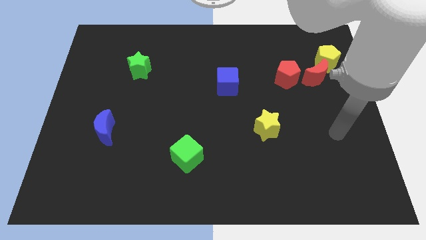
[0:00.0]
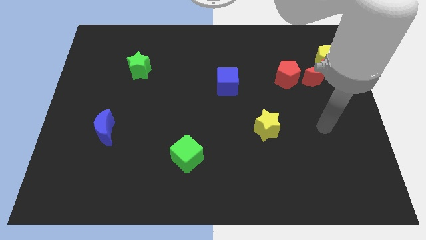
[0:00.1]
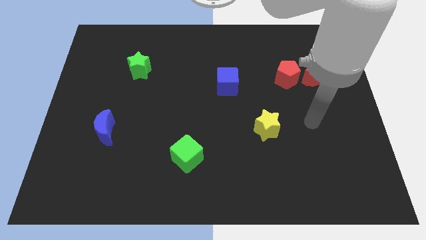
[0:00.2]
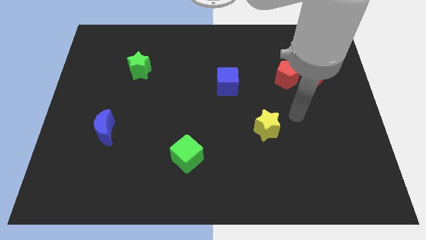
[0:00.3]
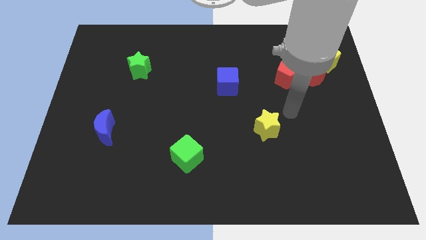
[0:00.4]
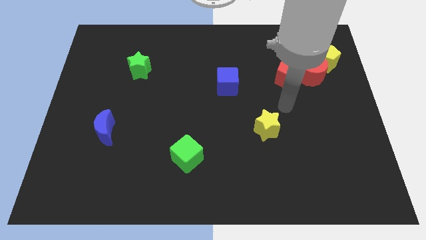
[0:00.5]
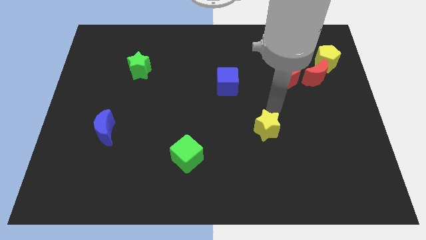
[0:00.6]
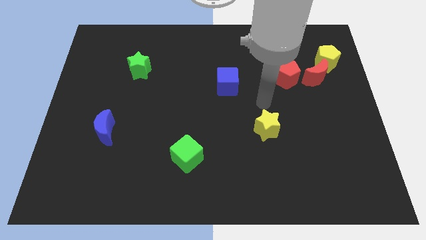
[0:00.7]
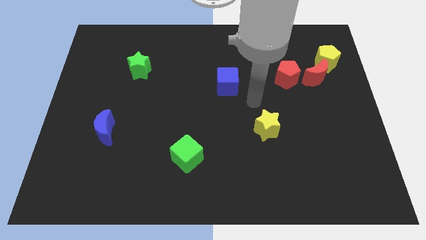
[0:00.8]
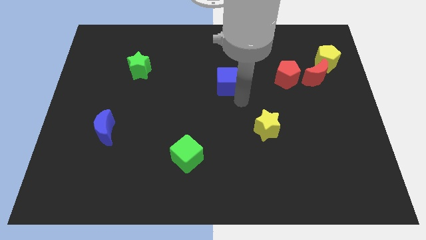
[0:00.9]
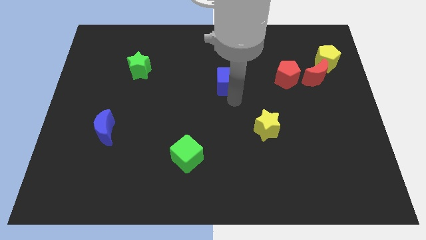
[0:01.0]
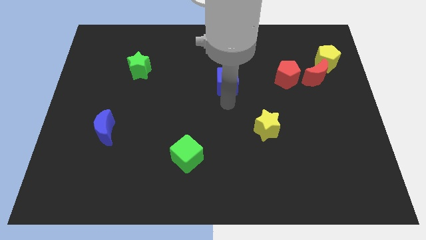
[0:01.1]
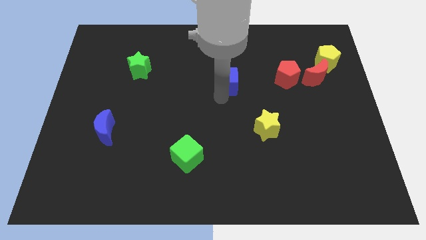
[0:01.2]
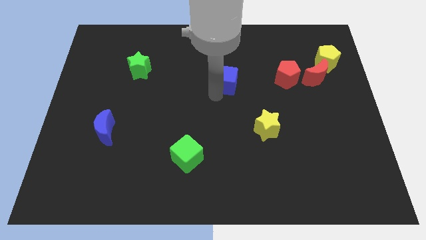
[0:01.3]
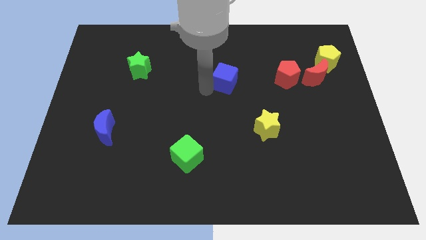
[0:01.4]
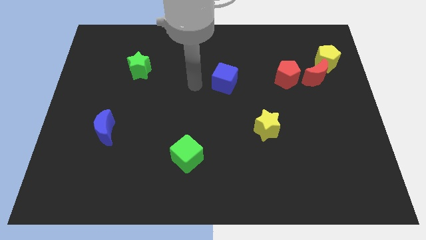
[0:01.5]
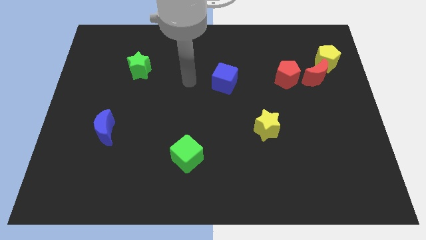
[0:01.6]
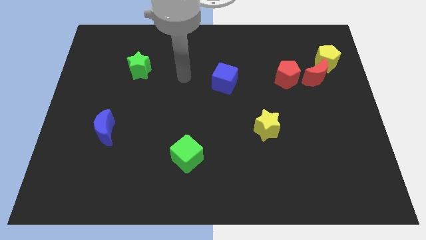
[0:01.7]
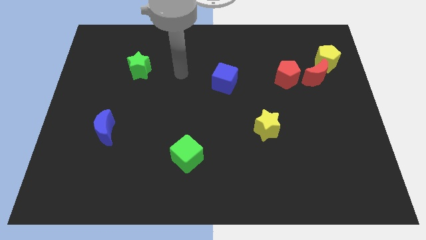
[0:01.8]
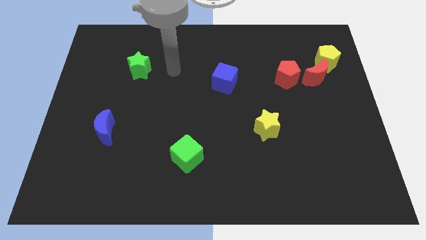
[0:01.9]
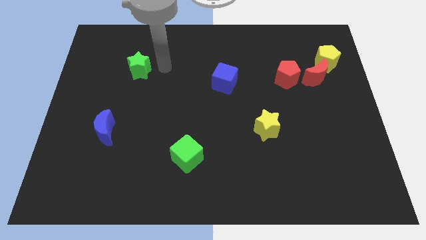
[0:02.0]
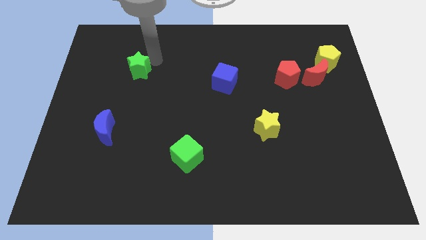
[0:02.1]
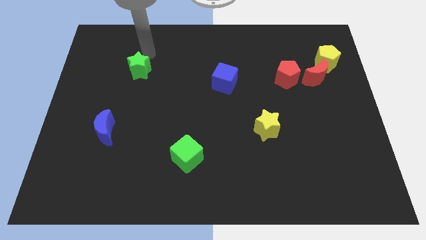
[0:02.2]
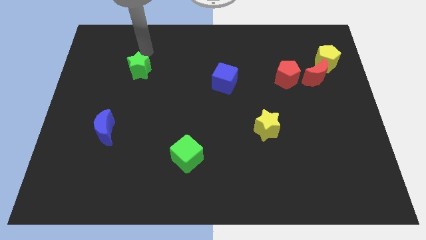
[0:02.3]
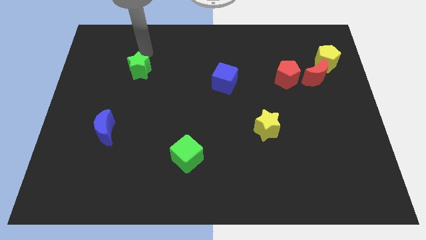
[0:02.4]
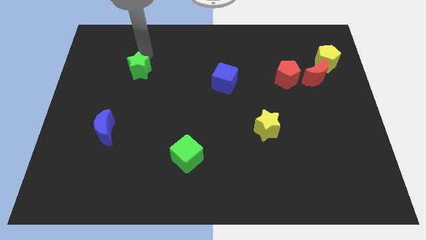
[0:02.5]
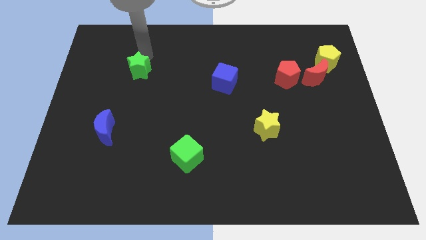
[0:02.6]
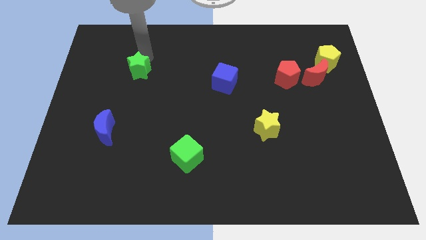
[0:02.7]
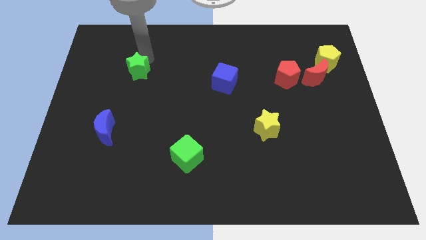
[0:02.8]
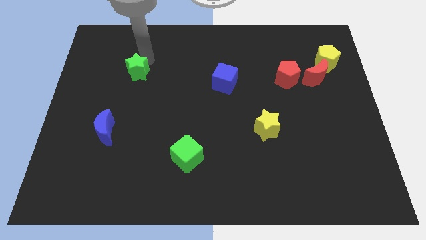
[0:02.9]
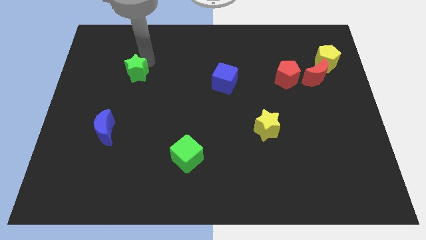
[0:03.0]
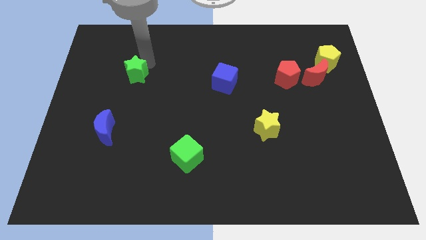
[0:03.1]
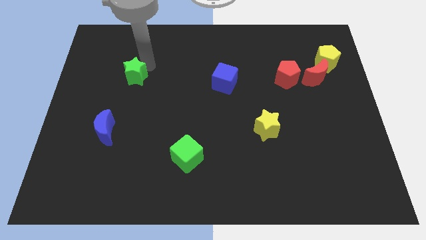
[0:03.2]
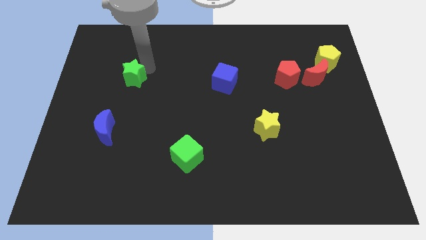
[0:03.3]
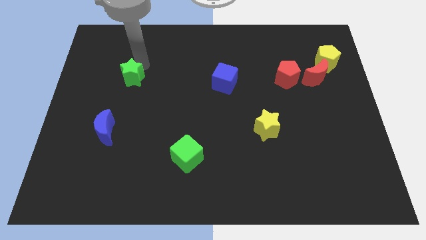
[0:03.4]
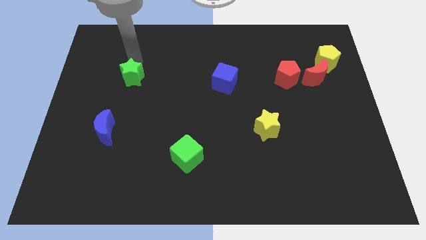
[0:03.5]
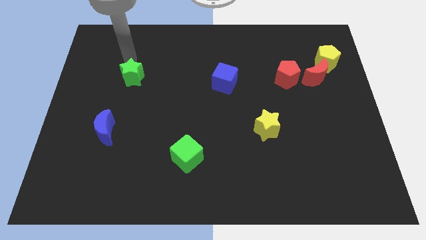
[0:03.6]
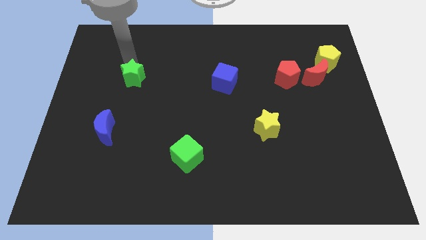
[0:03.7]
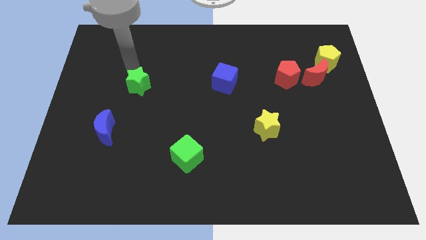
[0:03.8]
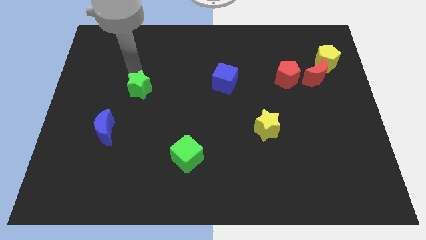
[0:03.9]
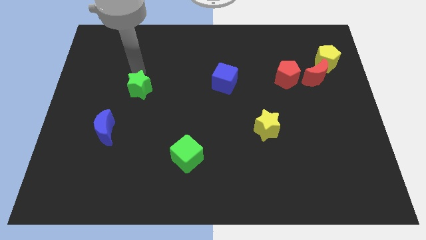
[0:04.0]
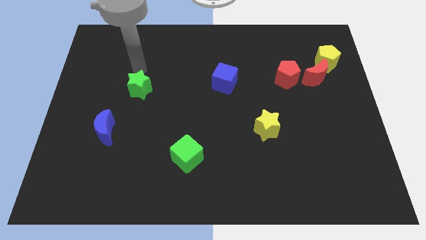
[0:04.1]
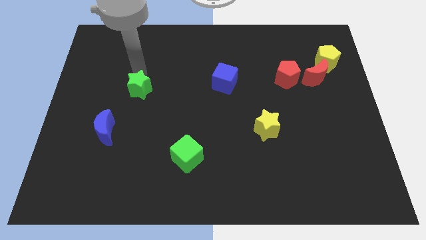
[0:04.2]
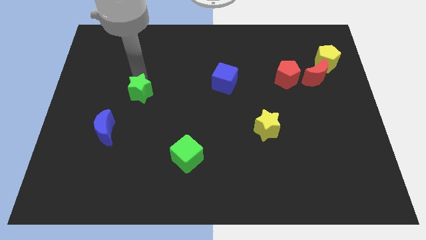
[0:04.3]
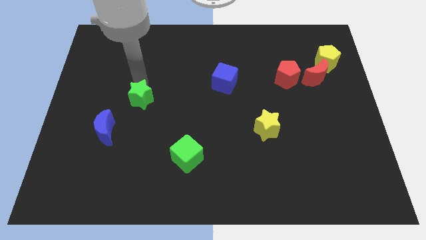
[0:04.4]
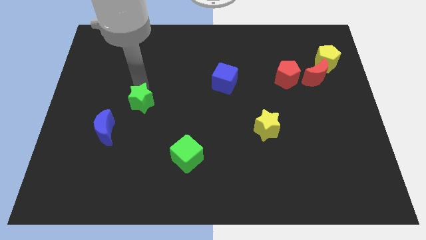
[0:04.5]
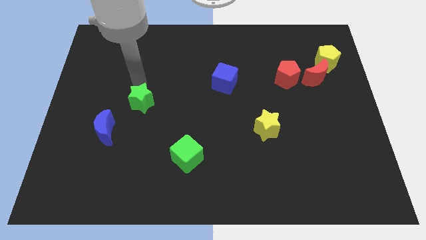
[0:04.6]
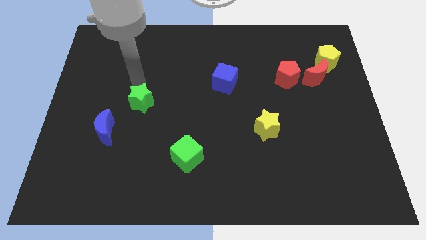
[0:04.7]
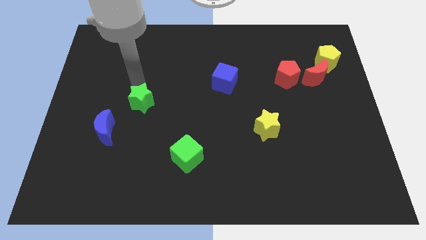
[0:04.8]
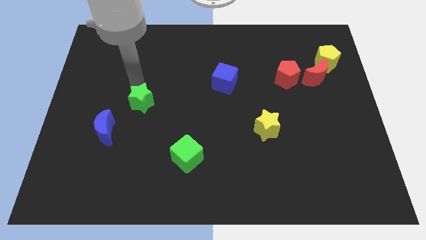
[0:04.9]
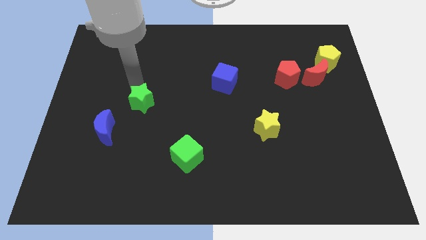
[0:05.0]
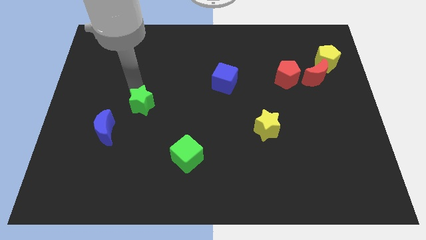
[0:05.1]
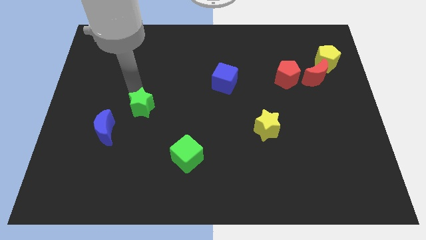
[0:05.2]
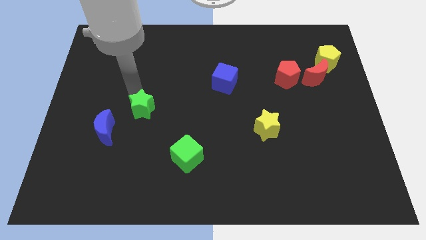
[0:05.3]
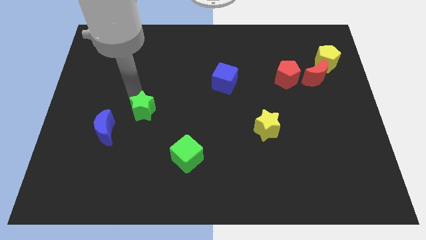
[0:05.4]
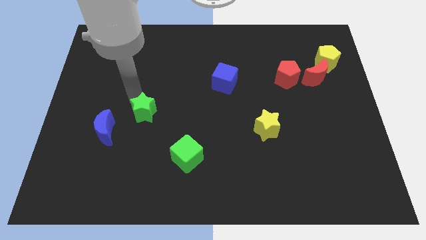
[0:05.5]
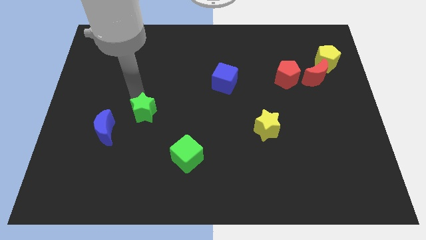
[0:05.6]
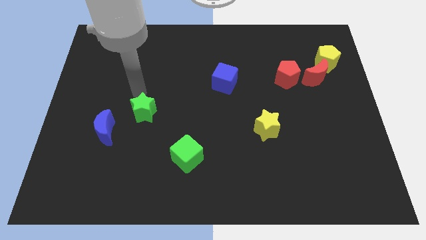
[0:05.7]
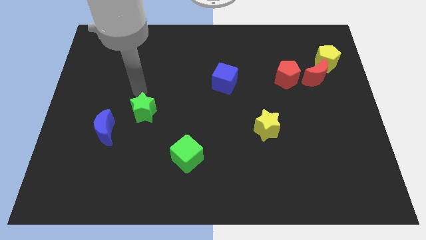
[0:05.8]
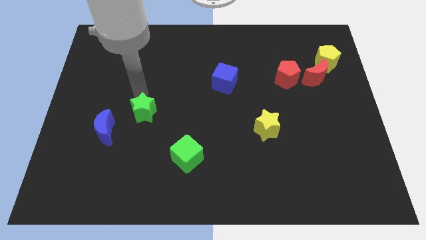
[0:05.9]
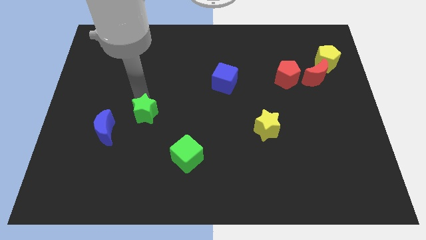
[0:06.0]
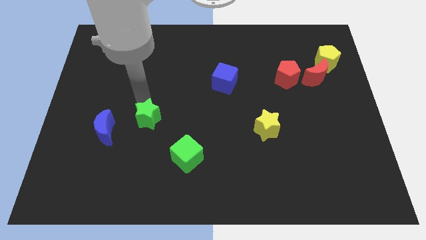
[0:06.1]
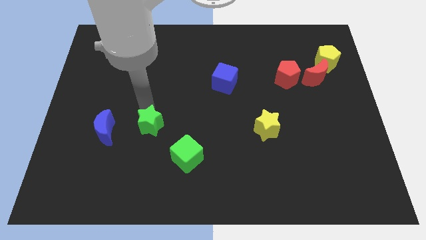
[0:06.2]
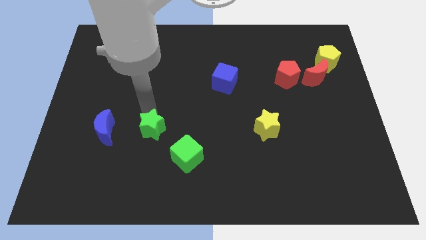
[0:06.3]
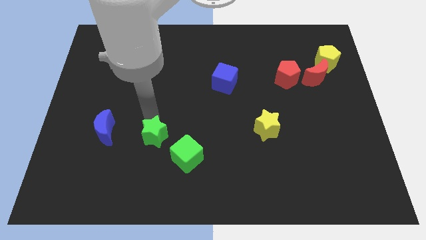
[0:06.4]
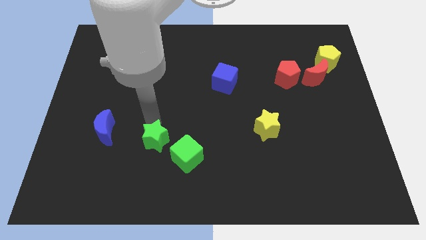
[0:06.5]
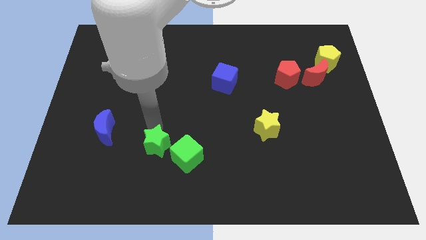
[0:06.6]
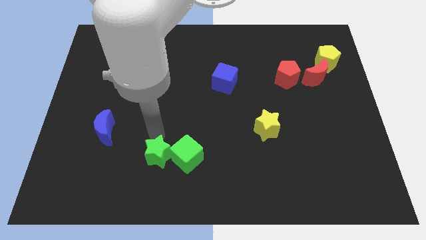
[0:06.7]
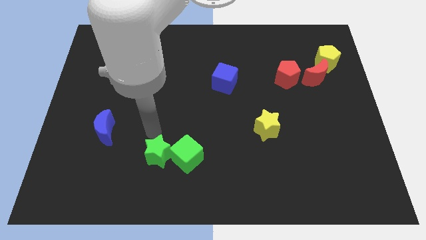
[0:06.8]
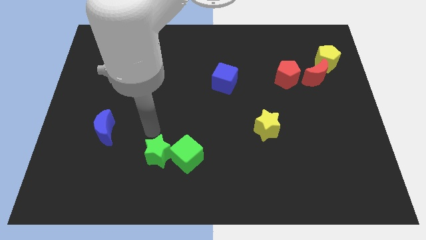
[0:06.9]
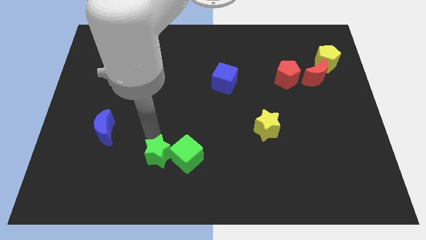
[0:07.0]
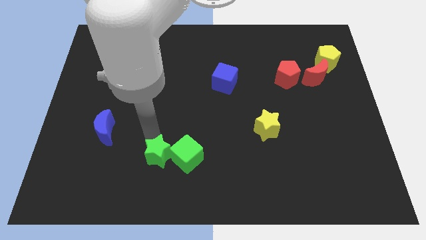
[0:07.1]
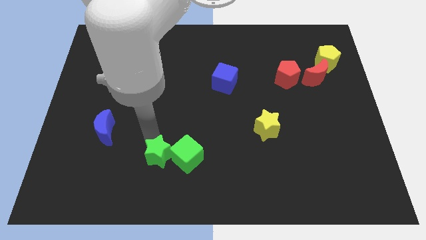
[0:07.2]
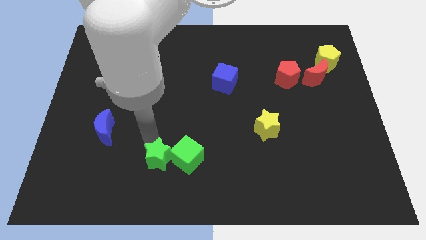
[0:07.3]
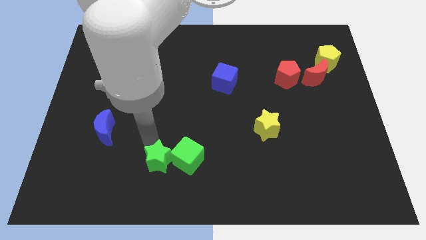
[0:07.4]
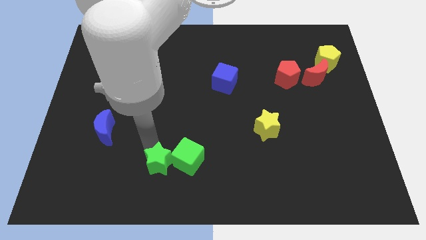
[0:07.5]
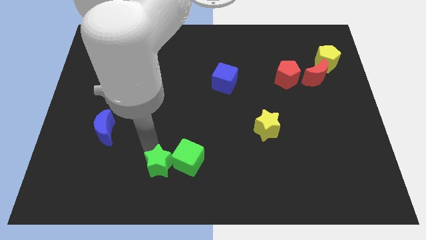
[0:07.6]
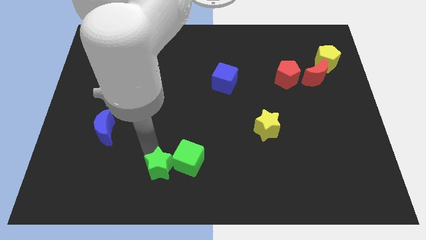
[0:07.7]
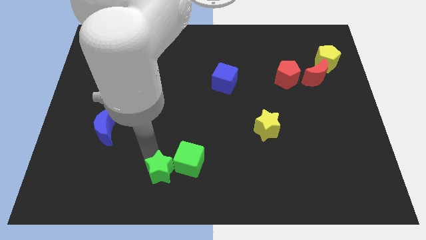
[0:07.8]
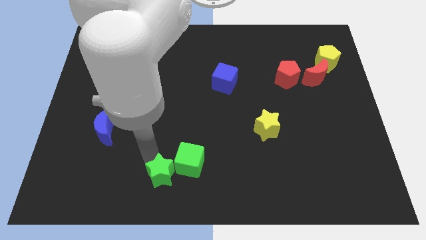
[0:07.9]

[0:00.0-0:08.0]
push the green star to the bottom
